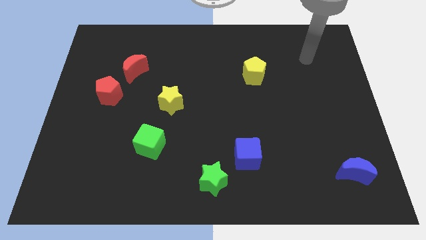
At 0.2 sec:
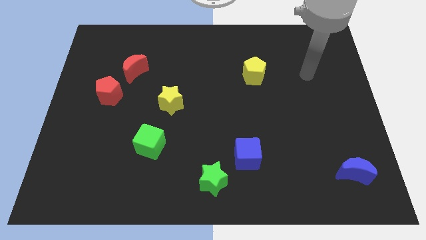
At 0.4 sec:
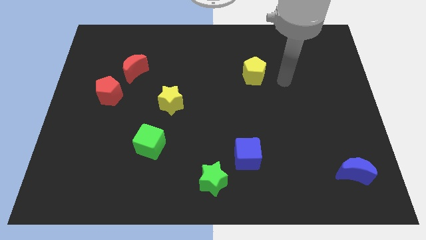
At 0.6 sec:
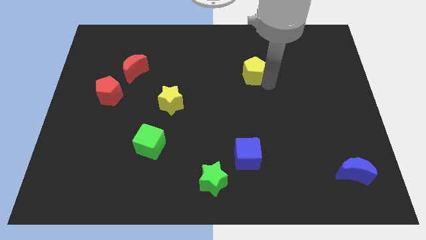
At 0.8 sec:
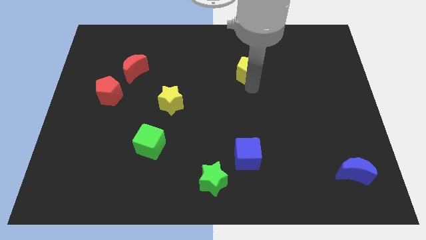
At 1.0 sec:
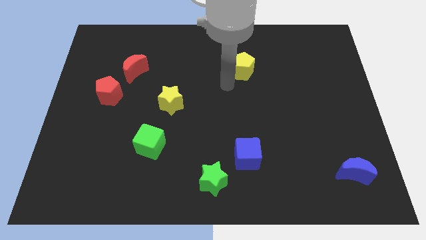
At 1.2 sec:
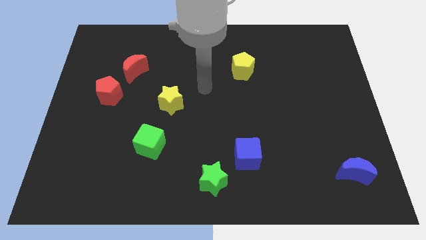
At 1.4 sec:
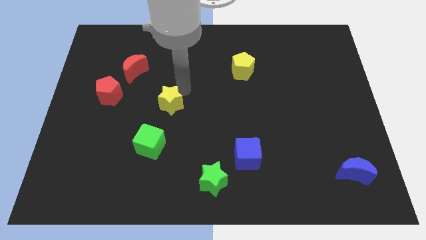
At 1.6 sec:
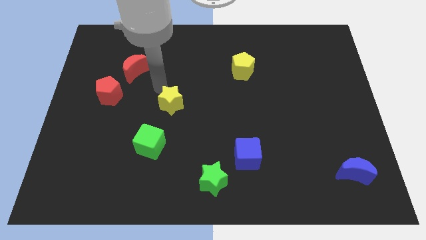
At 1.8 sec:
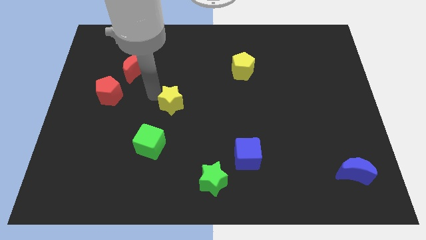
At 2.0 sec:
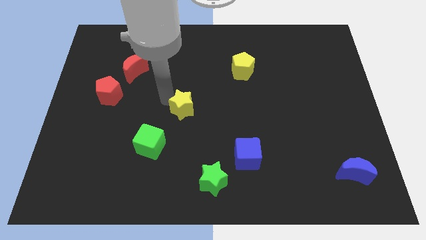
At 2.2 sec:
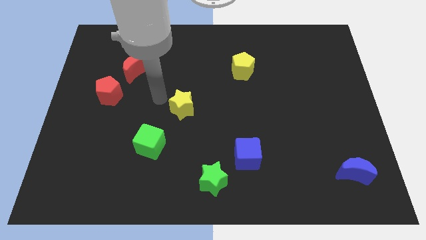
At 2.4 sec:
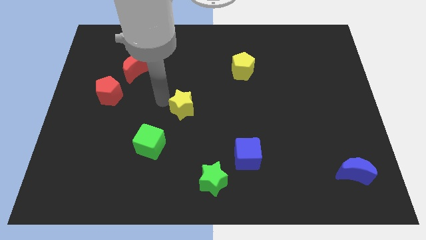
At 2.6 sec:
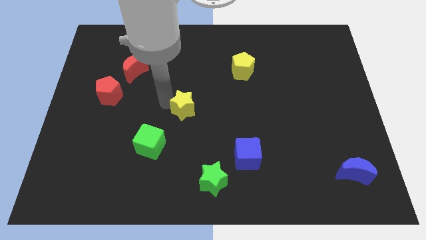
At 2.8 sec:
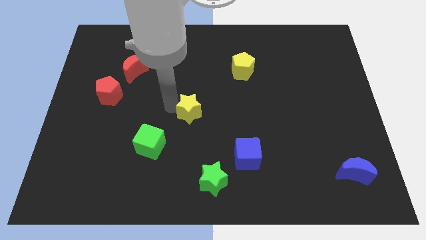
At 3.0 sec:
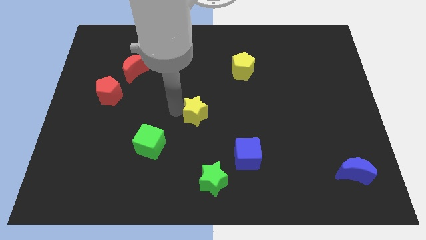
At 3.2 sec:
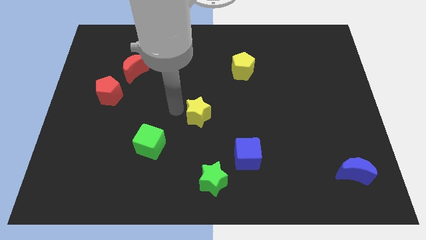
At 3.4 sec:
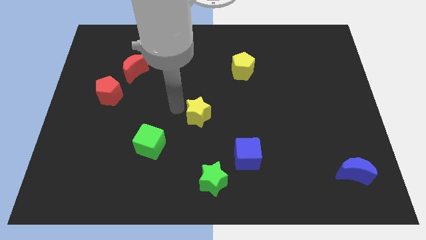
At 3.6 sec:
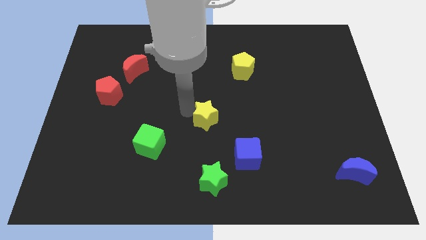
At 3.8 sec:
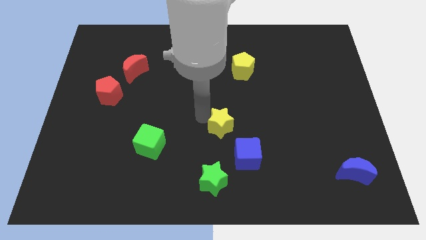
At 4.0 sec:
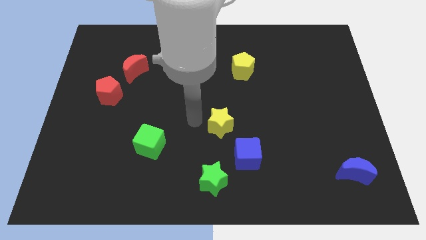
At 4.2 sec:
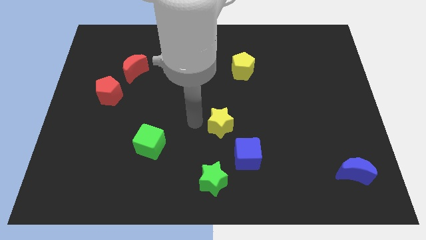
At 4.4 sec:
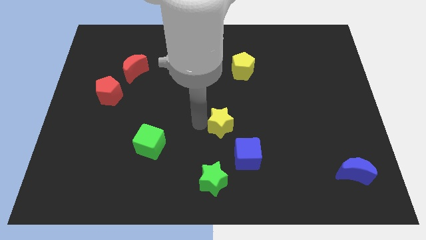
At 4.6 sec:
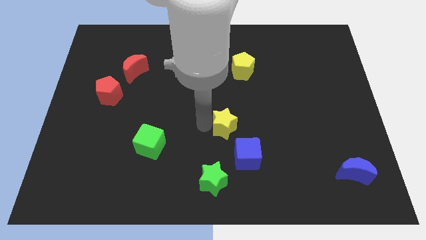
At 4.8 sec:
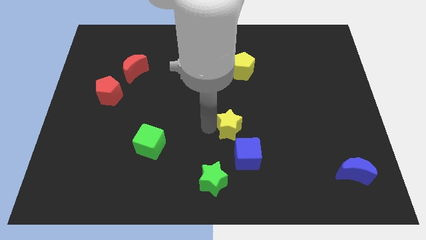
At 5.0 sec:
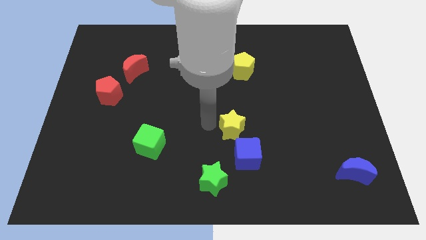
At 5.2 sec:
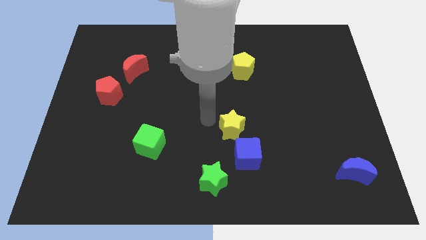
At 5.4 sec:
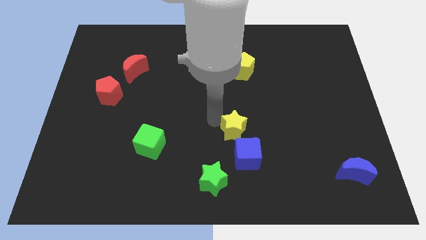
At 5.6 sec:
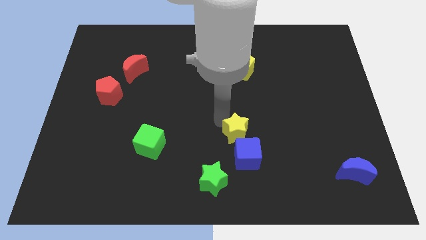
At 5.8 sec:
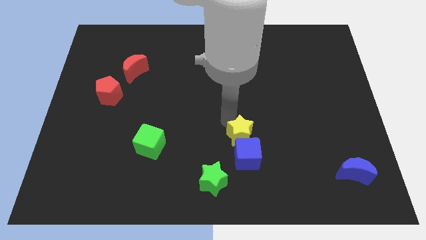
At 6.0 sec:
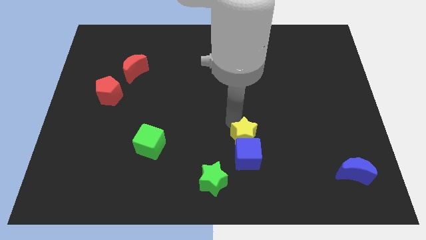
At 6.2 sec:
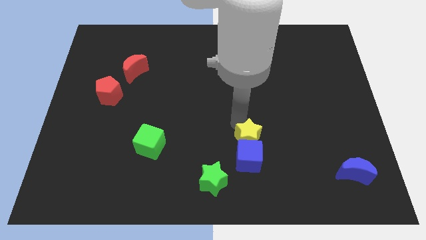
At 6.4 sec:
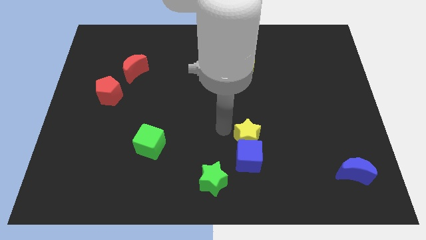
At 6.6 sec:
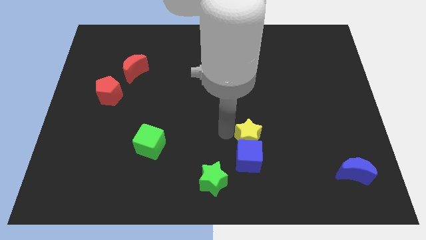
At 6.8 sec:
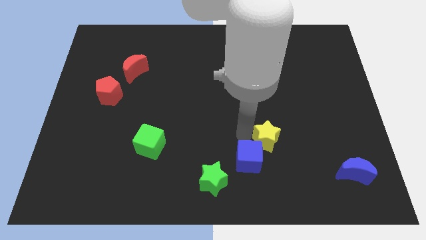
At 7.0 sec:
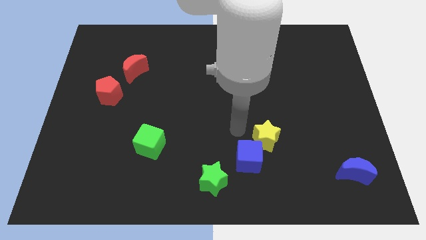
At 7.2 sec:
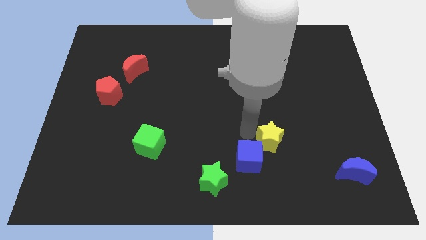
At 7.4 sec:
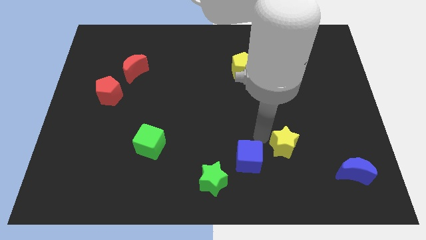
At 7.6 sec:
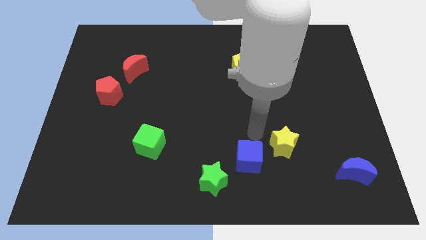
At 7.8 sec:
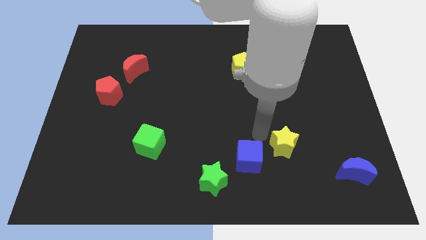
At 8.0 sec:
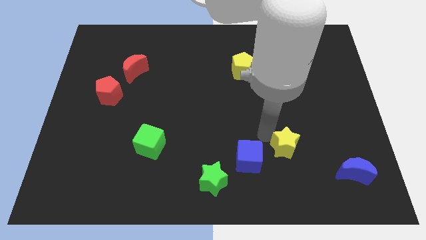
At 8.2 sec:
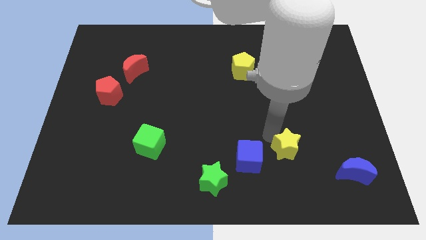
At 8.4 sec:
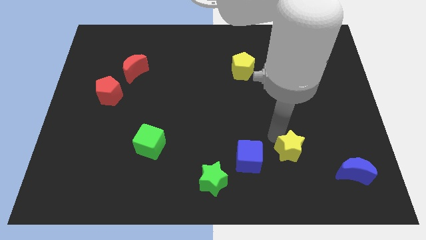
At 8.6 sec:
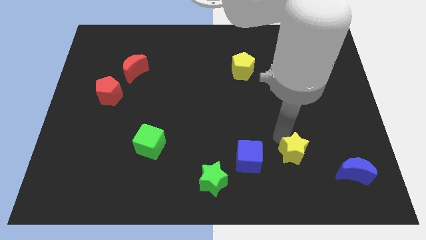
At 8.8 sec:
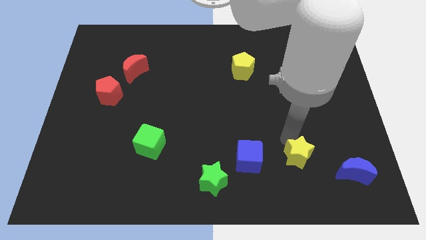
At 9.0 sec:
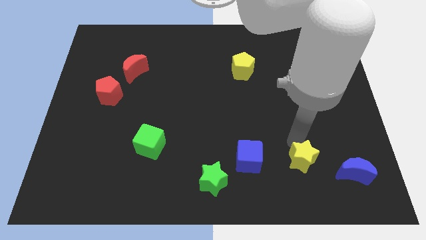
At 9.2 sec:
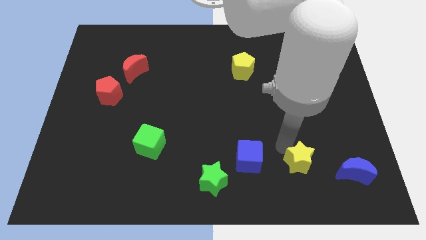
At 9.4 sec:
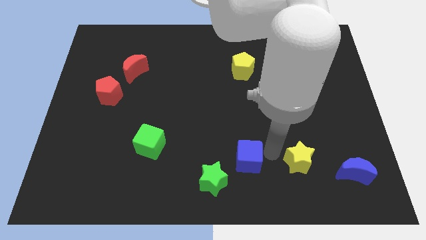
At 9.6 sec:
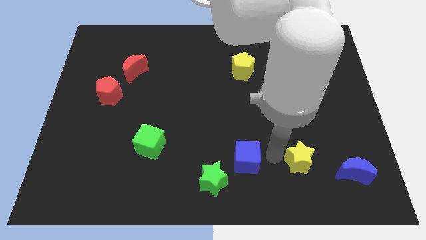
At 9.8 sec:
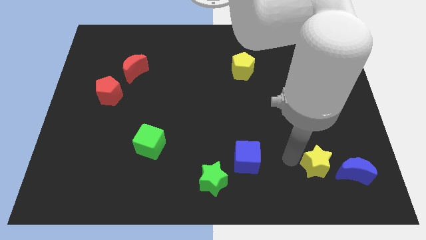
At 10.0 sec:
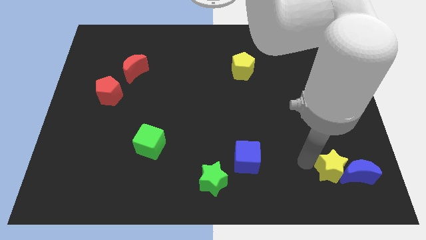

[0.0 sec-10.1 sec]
move the yellow star close to the blue moon

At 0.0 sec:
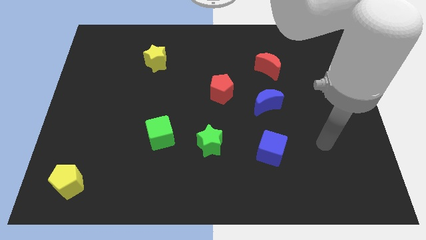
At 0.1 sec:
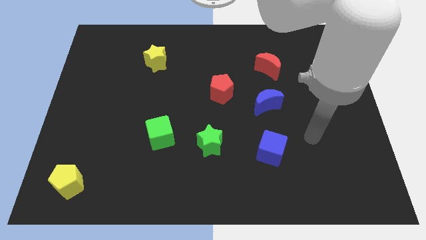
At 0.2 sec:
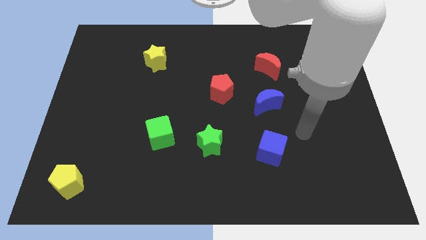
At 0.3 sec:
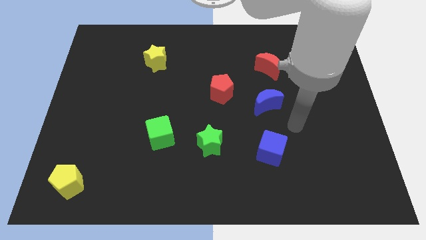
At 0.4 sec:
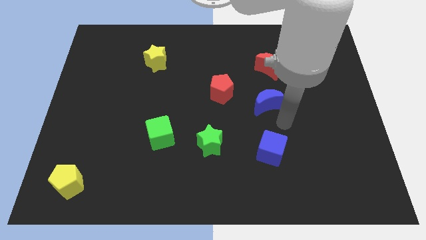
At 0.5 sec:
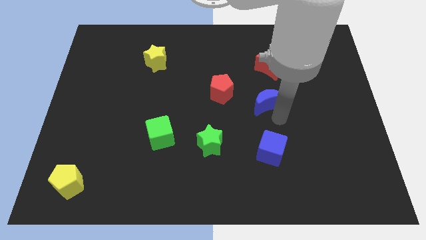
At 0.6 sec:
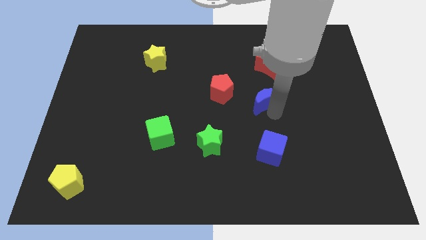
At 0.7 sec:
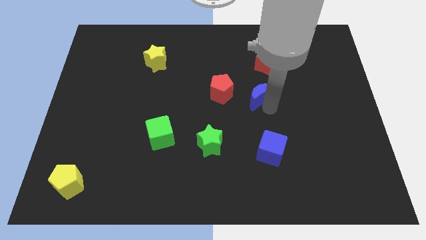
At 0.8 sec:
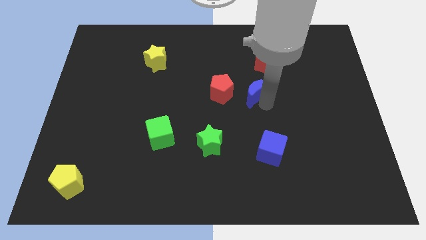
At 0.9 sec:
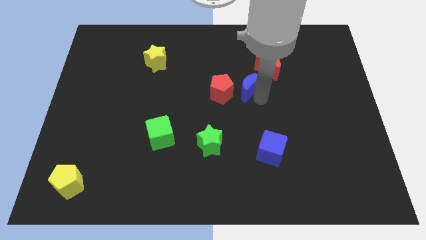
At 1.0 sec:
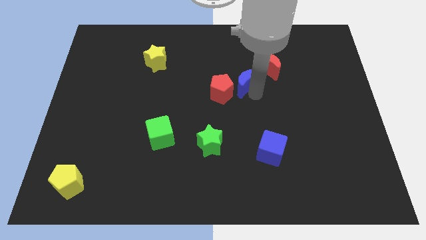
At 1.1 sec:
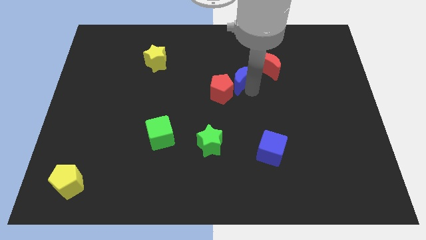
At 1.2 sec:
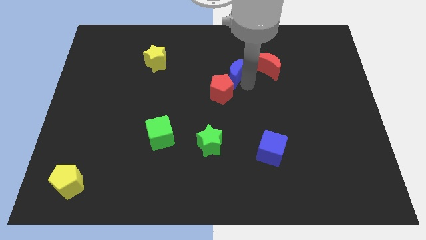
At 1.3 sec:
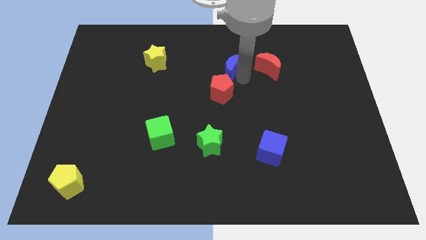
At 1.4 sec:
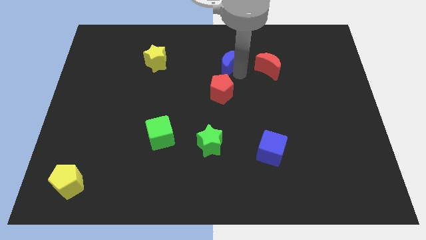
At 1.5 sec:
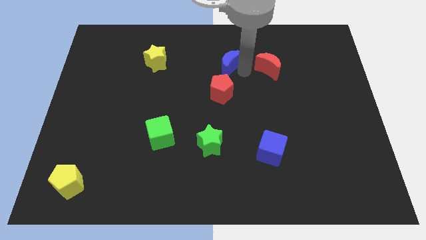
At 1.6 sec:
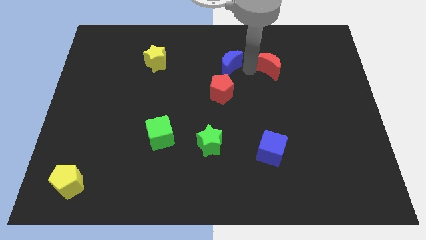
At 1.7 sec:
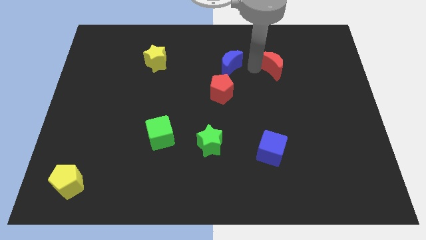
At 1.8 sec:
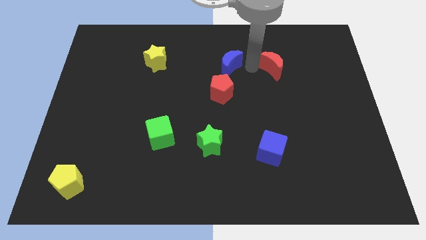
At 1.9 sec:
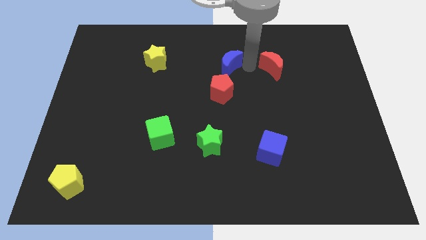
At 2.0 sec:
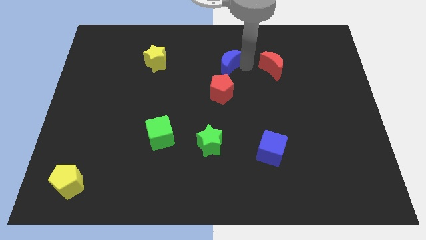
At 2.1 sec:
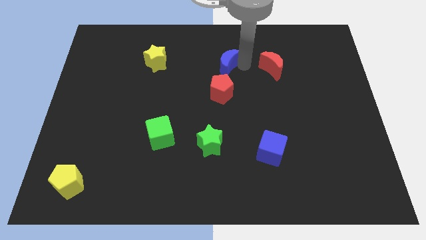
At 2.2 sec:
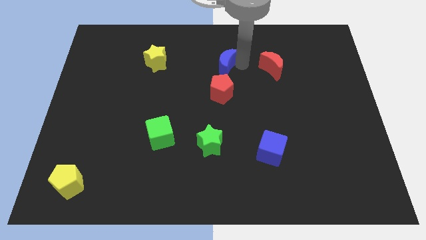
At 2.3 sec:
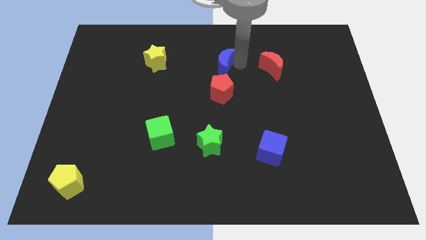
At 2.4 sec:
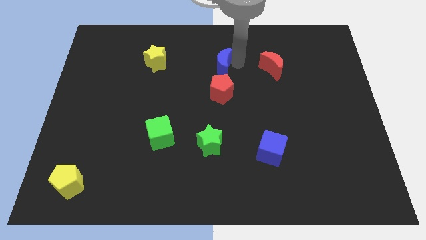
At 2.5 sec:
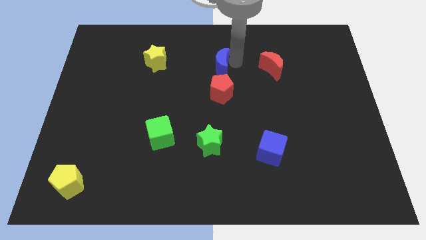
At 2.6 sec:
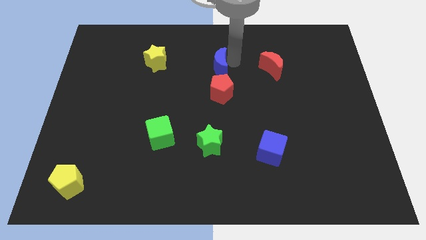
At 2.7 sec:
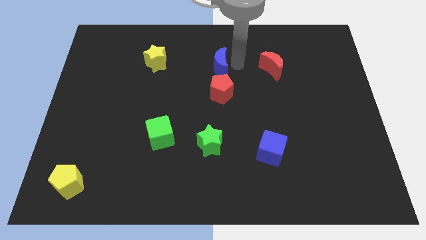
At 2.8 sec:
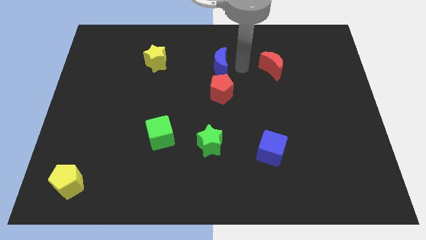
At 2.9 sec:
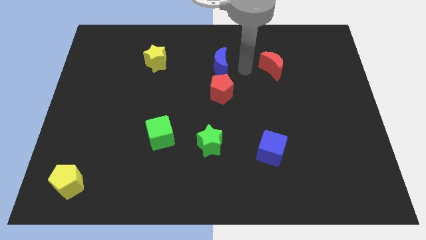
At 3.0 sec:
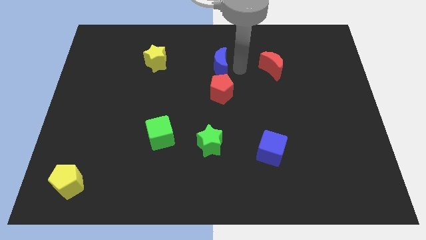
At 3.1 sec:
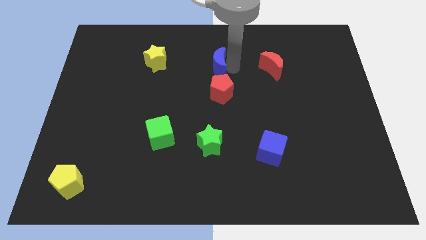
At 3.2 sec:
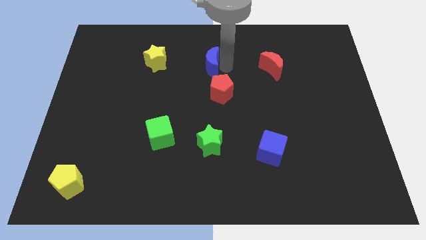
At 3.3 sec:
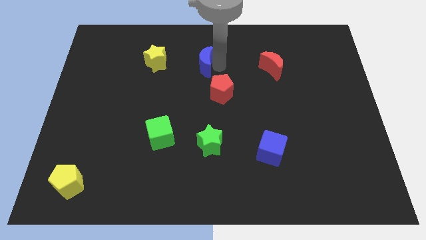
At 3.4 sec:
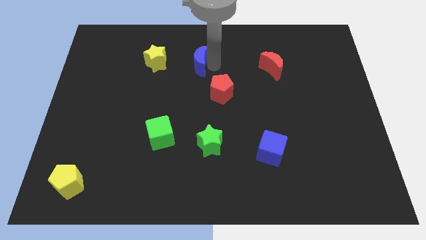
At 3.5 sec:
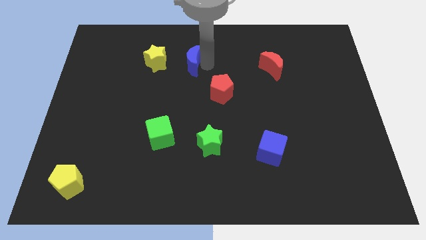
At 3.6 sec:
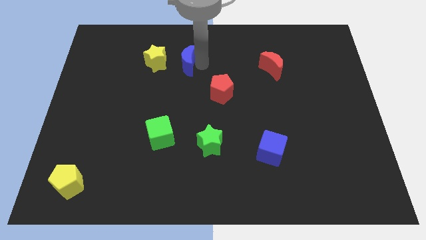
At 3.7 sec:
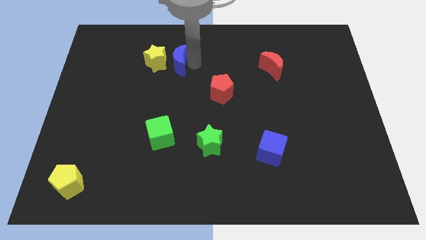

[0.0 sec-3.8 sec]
push the blue moon to the yellow star
